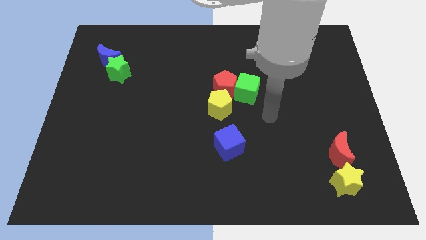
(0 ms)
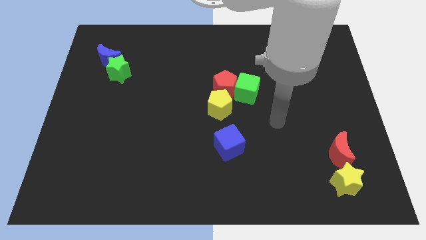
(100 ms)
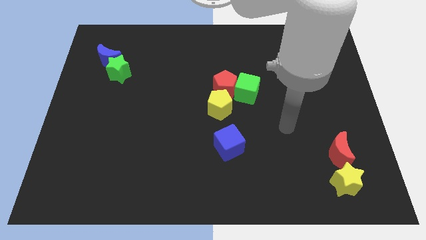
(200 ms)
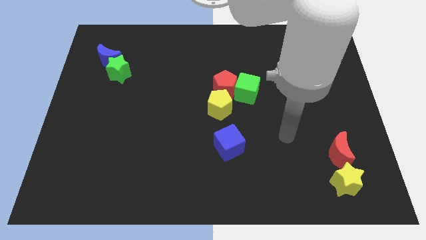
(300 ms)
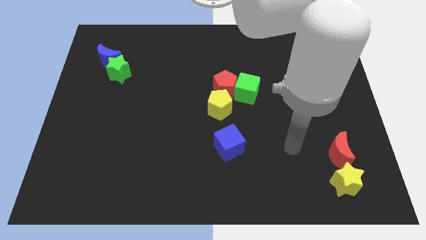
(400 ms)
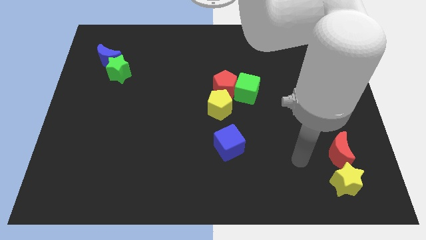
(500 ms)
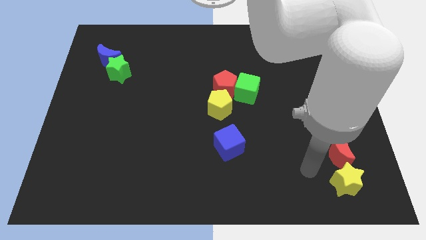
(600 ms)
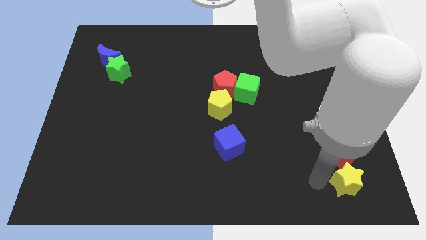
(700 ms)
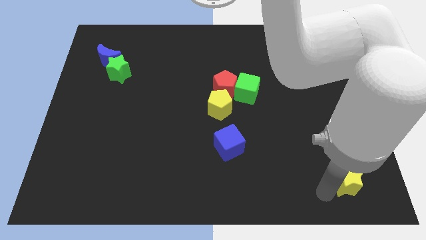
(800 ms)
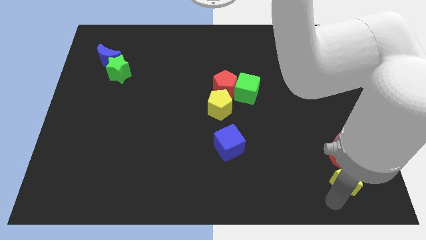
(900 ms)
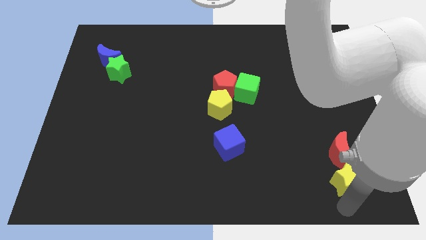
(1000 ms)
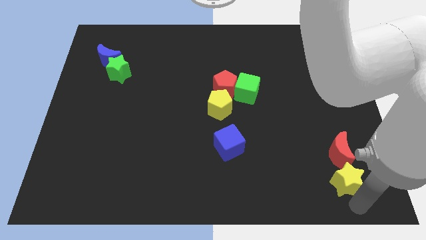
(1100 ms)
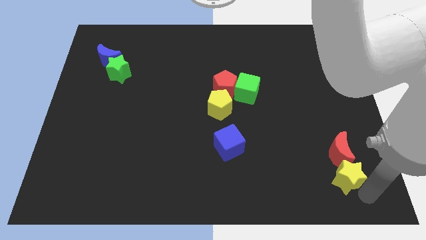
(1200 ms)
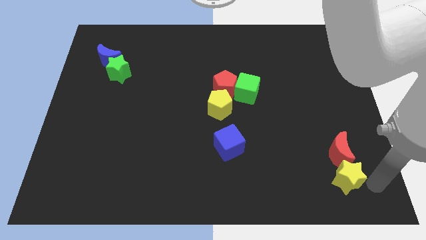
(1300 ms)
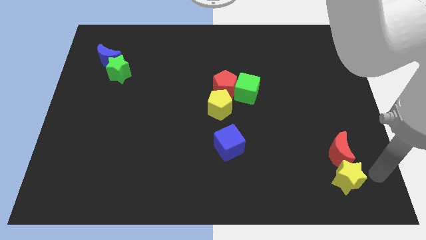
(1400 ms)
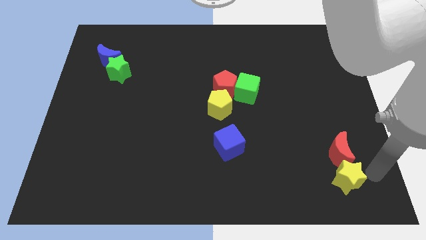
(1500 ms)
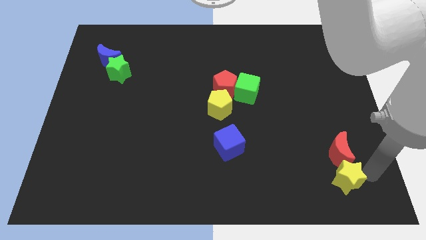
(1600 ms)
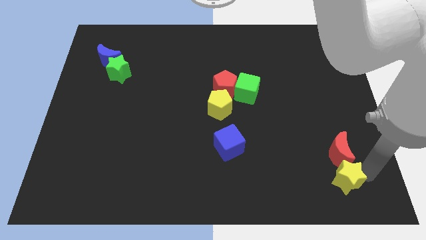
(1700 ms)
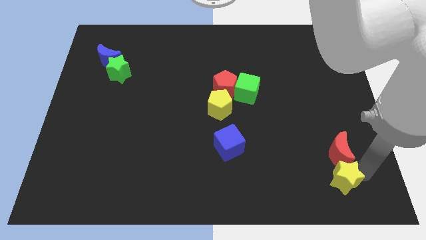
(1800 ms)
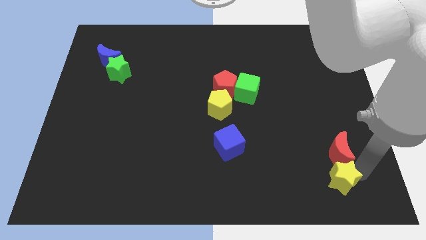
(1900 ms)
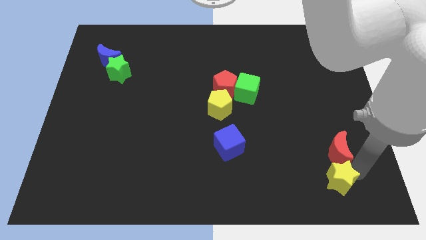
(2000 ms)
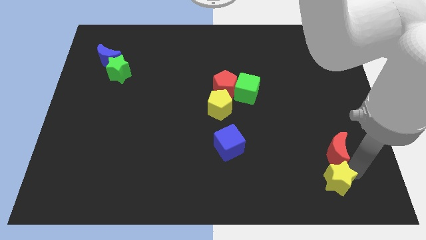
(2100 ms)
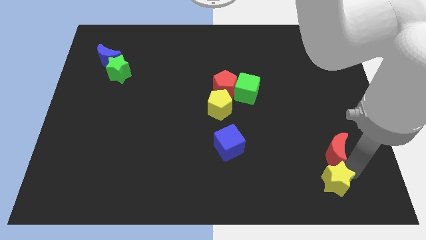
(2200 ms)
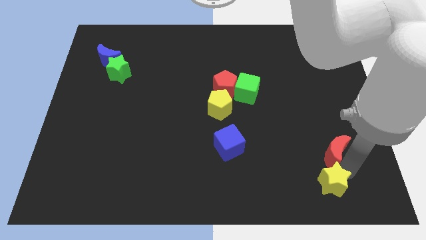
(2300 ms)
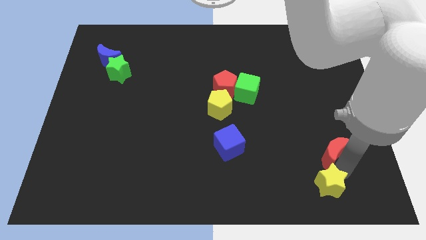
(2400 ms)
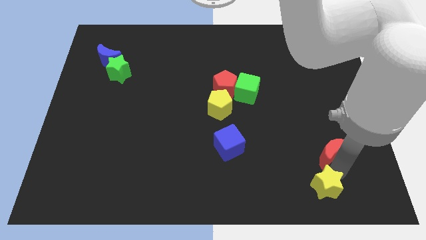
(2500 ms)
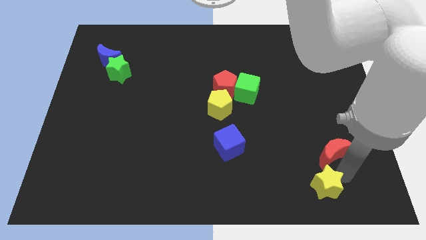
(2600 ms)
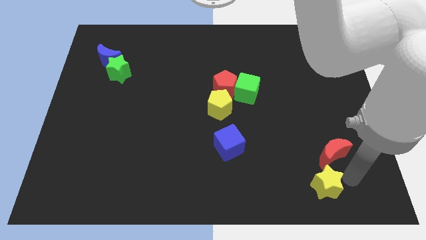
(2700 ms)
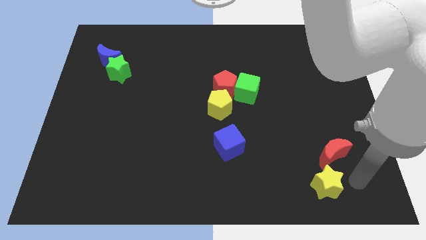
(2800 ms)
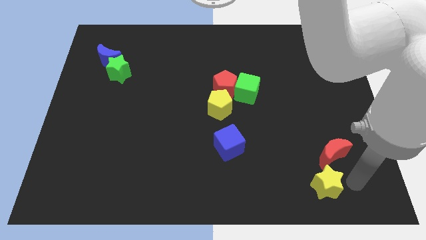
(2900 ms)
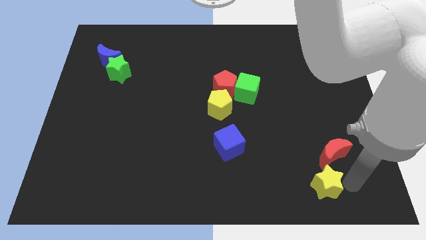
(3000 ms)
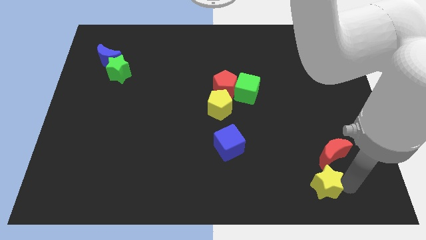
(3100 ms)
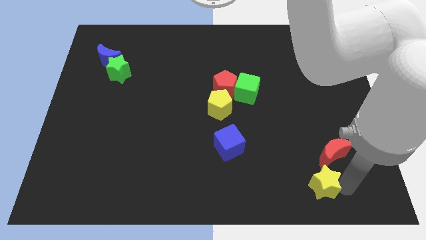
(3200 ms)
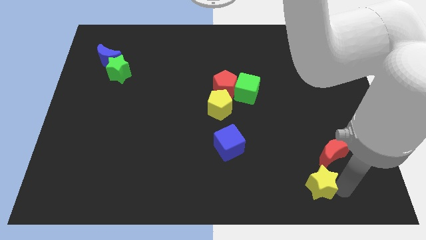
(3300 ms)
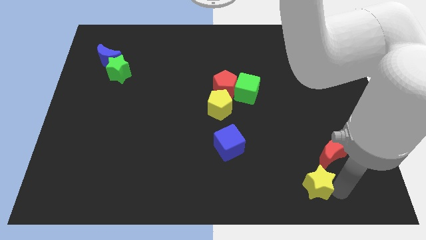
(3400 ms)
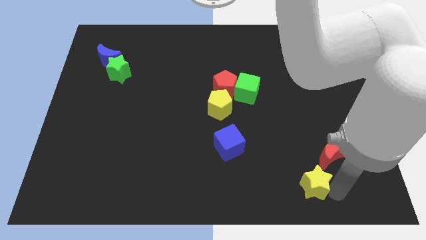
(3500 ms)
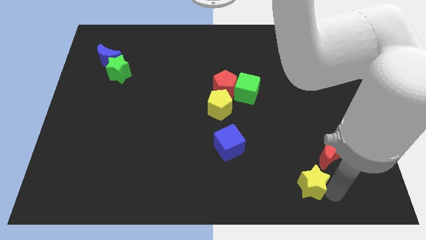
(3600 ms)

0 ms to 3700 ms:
slightly move the yellow star to the left

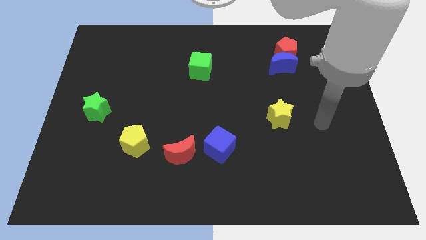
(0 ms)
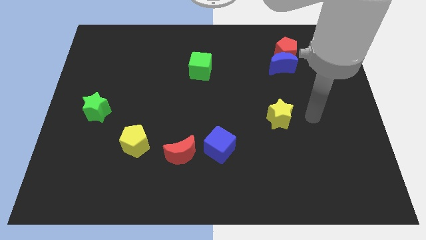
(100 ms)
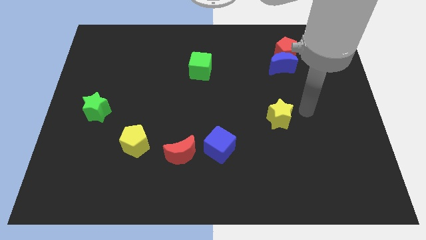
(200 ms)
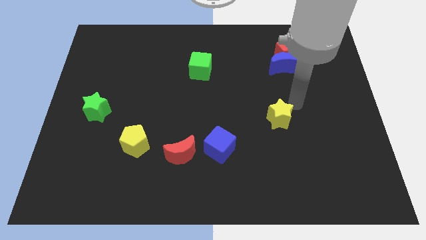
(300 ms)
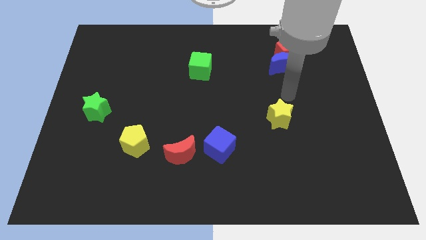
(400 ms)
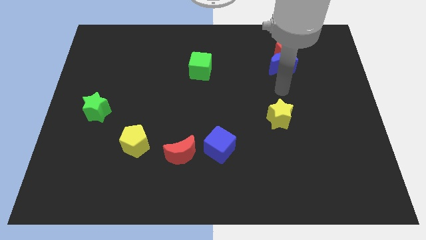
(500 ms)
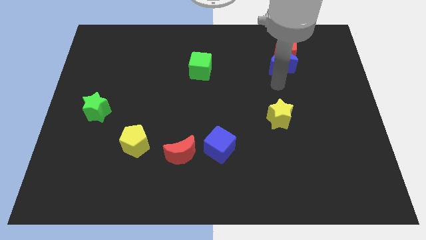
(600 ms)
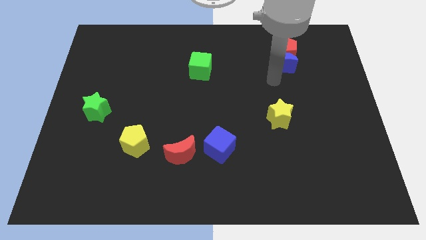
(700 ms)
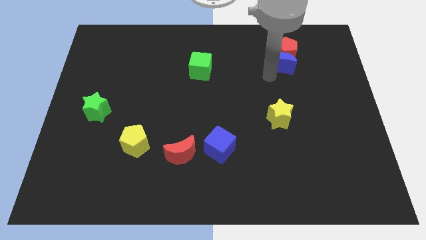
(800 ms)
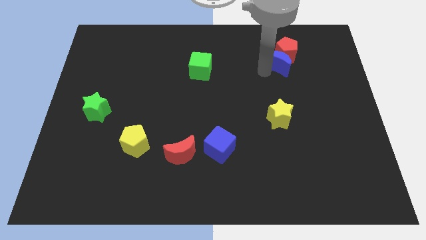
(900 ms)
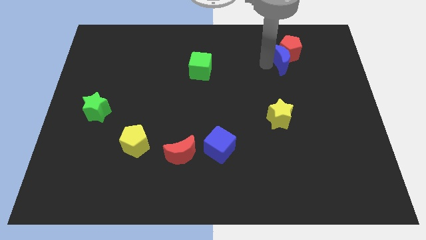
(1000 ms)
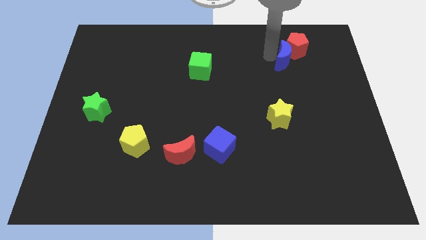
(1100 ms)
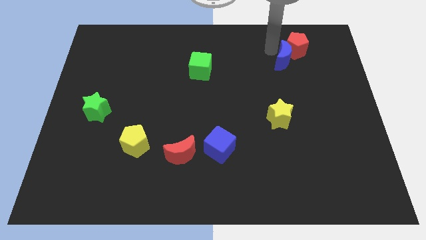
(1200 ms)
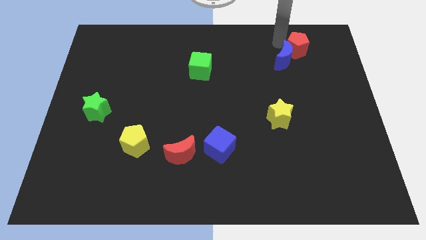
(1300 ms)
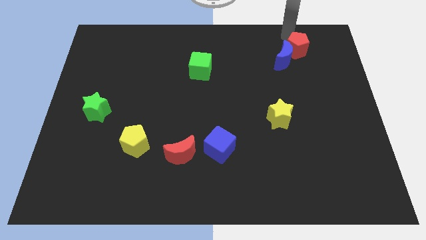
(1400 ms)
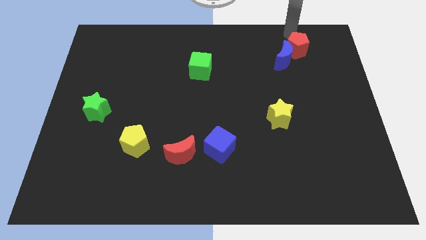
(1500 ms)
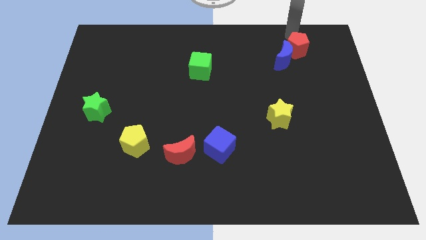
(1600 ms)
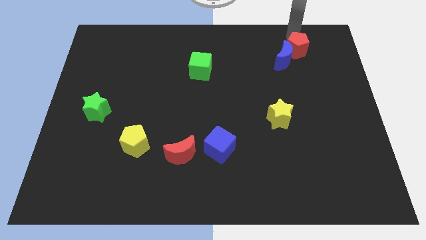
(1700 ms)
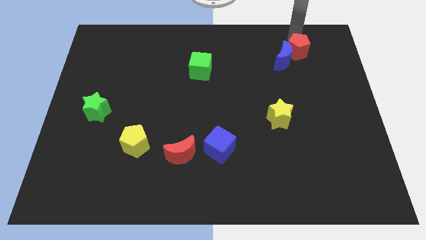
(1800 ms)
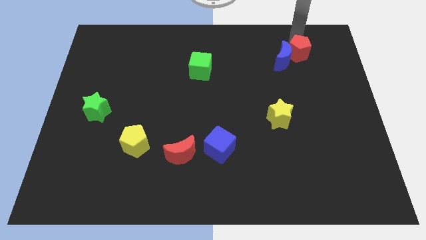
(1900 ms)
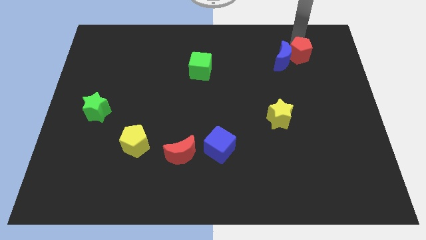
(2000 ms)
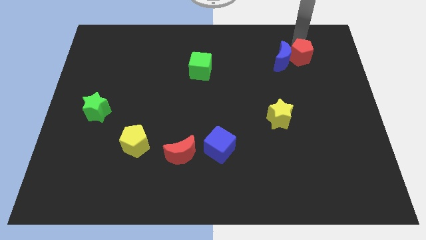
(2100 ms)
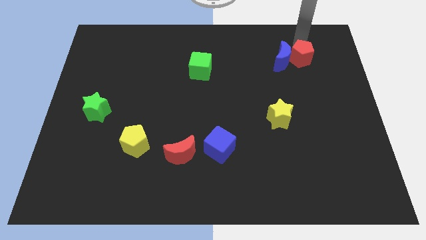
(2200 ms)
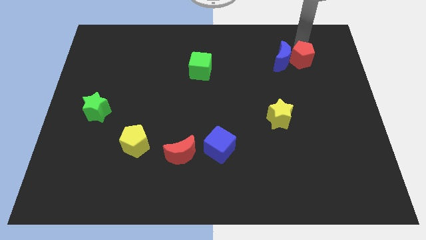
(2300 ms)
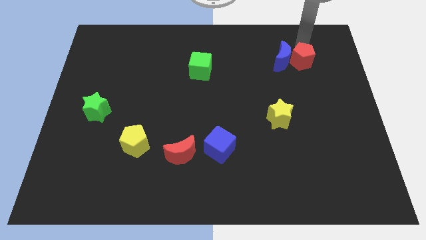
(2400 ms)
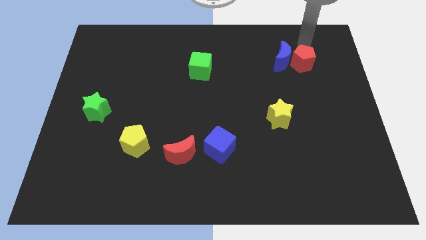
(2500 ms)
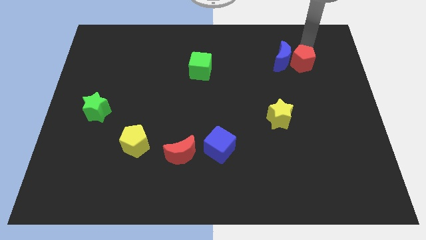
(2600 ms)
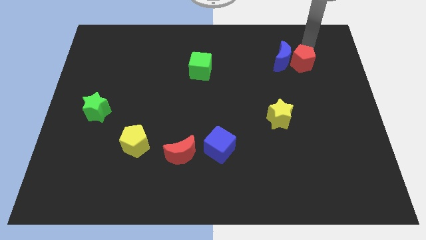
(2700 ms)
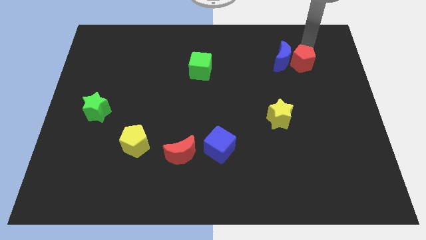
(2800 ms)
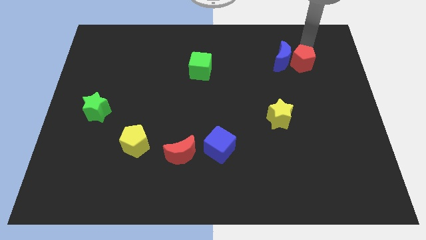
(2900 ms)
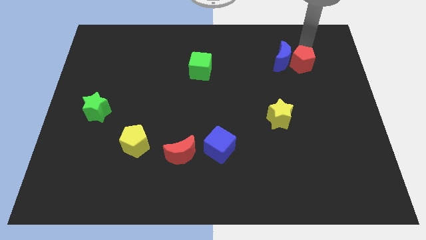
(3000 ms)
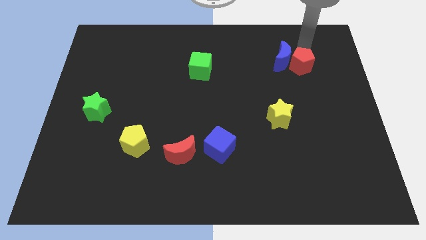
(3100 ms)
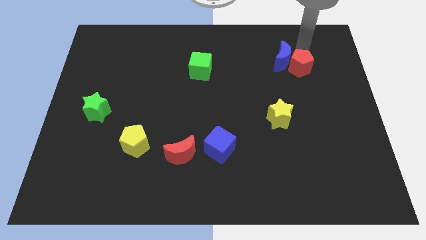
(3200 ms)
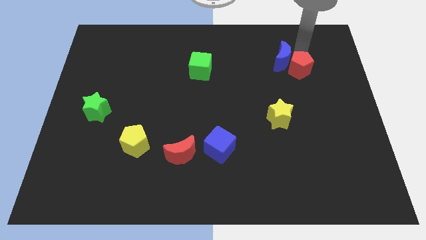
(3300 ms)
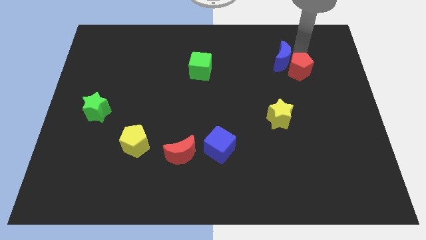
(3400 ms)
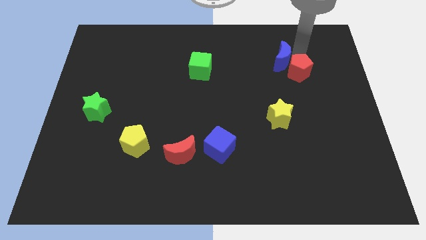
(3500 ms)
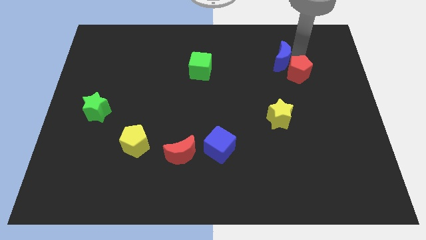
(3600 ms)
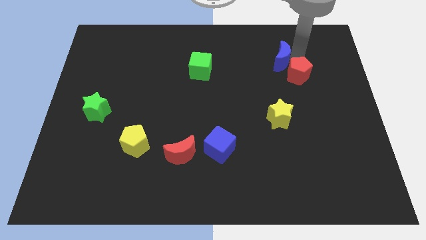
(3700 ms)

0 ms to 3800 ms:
slide the red pentagon downwards somewhat

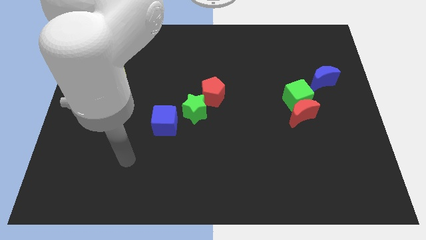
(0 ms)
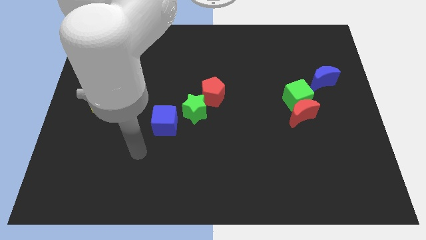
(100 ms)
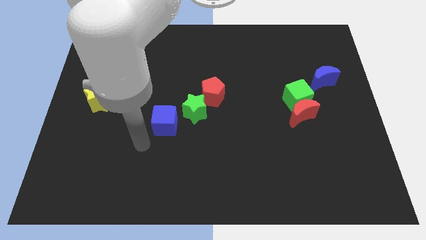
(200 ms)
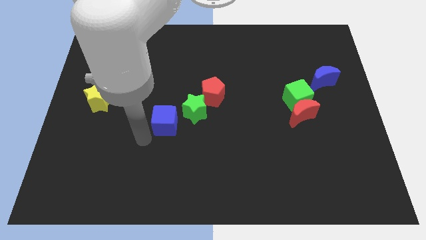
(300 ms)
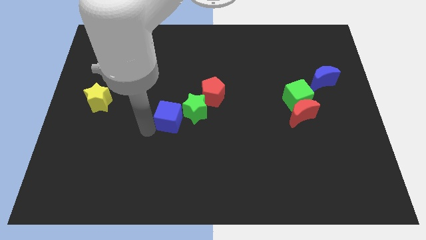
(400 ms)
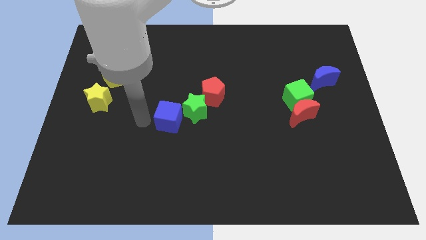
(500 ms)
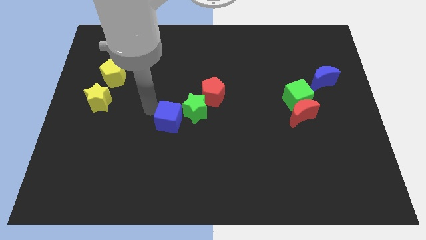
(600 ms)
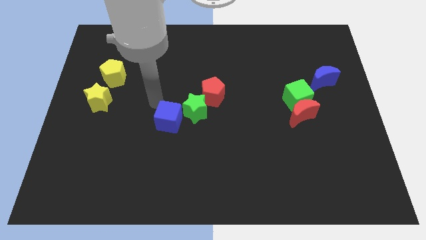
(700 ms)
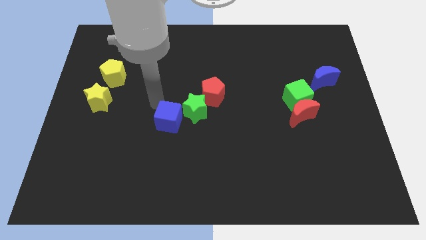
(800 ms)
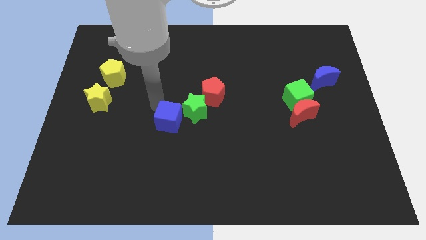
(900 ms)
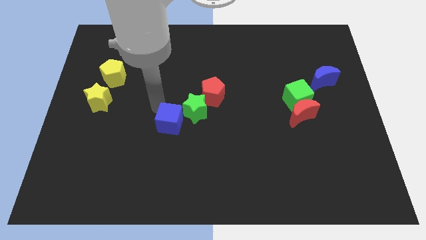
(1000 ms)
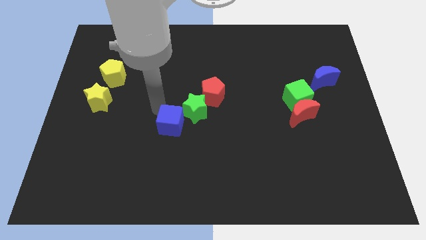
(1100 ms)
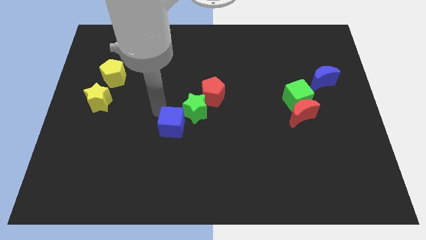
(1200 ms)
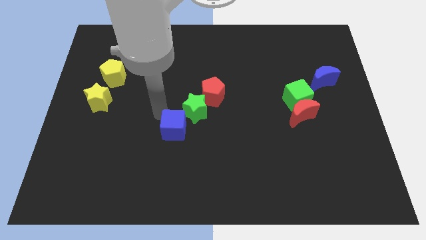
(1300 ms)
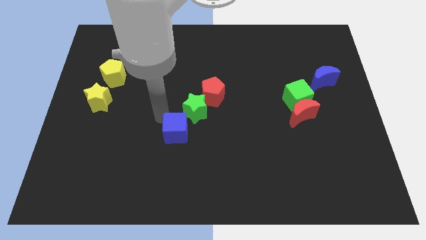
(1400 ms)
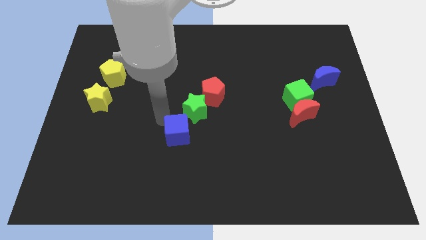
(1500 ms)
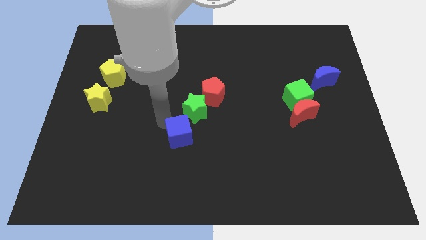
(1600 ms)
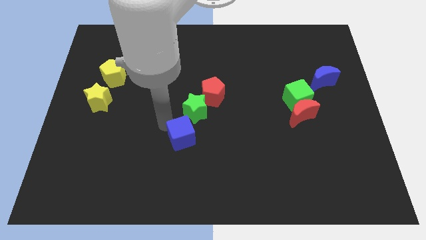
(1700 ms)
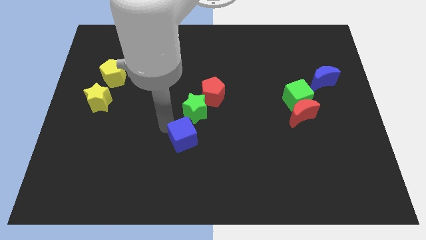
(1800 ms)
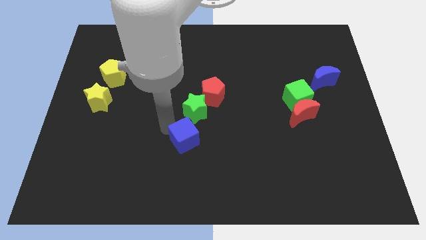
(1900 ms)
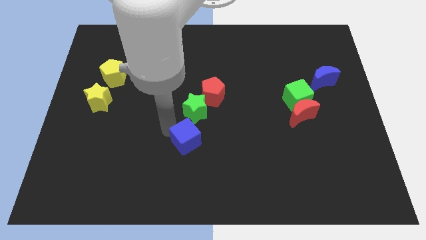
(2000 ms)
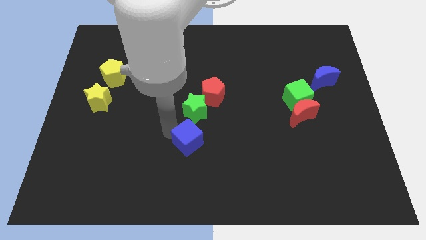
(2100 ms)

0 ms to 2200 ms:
slightly move the blue cube downwards and then right
